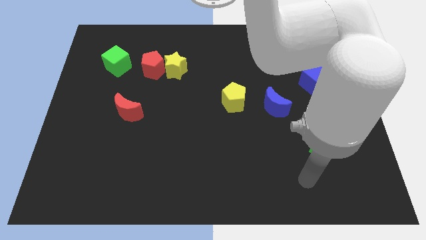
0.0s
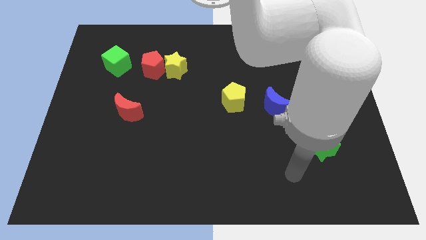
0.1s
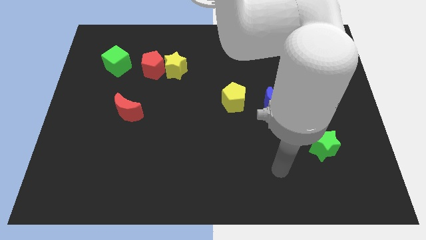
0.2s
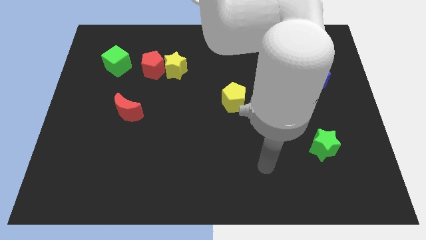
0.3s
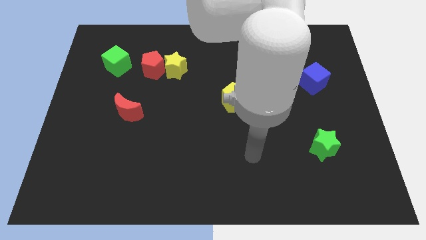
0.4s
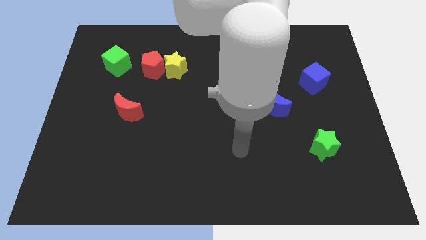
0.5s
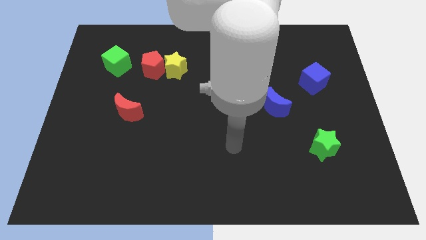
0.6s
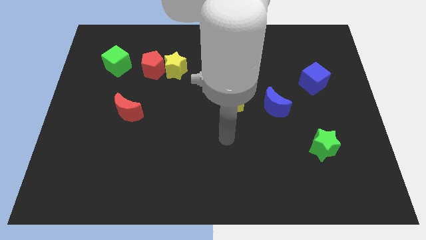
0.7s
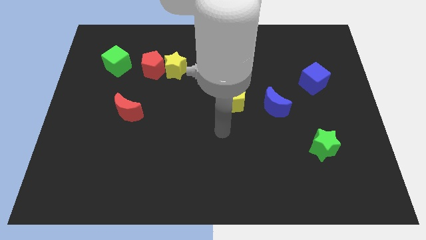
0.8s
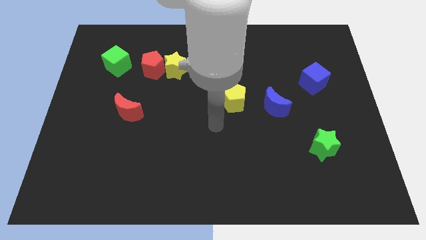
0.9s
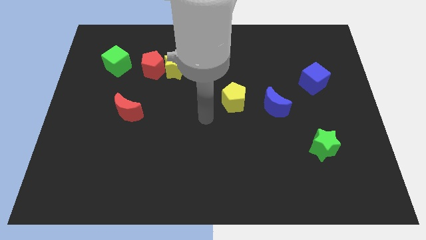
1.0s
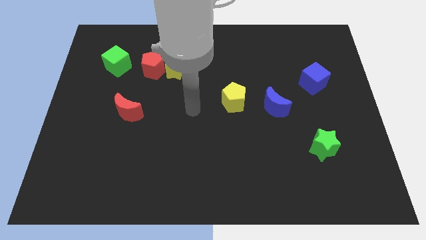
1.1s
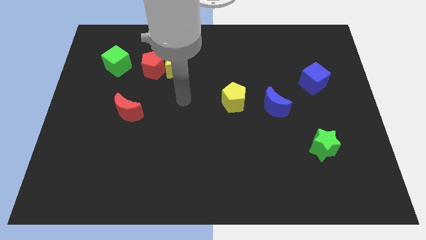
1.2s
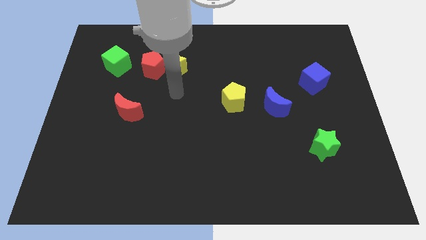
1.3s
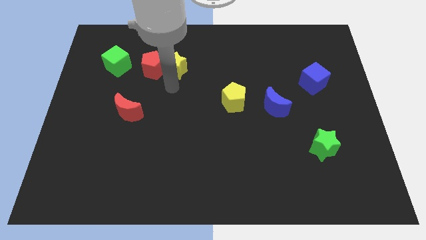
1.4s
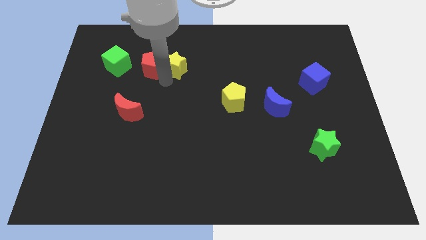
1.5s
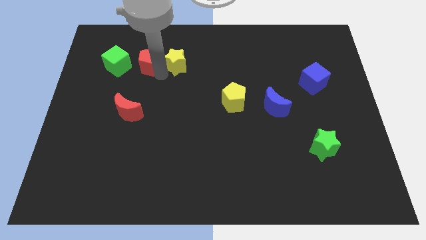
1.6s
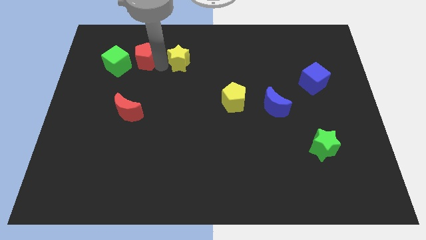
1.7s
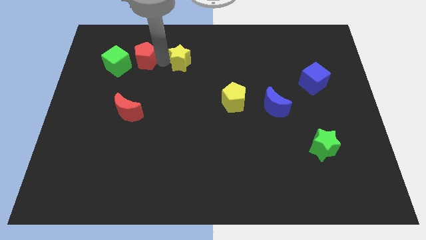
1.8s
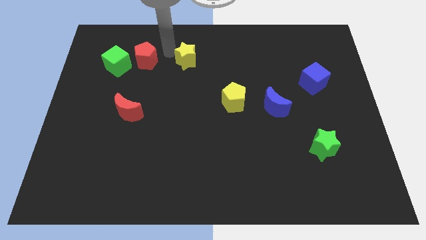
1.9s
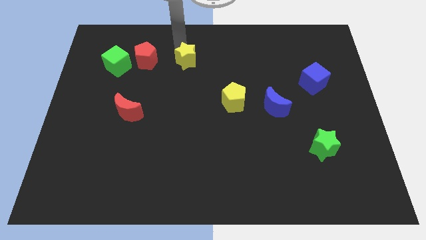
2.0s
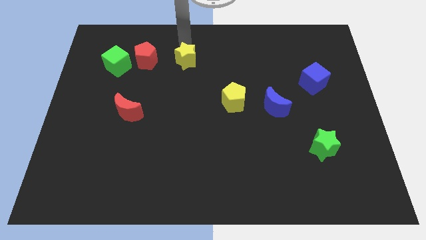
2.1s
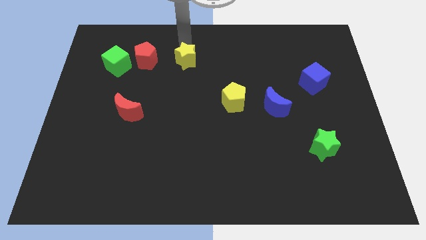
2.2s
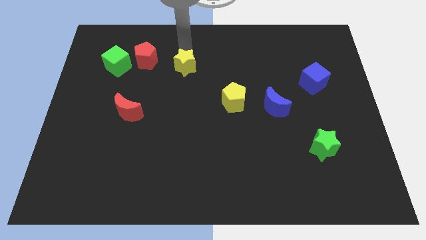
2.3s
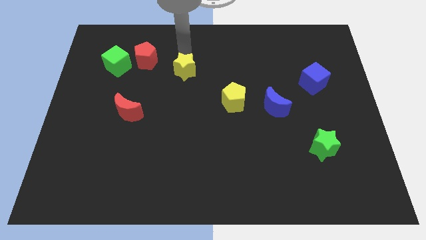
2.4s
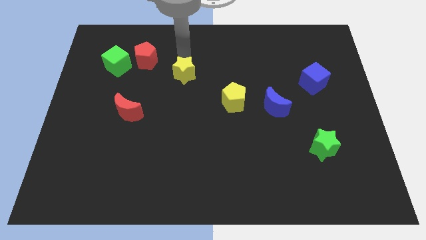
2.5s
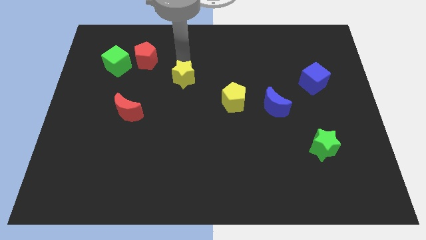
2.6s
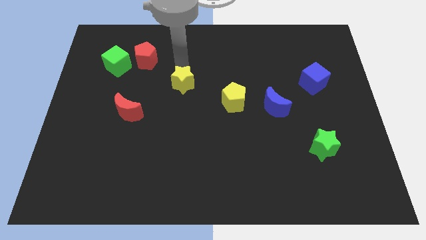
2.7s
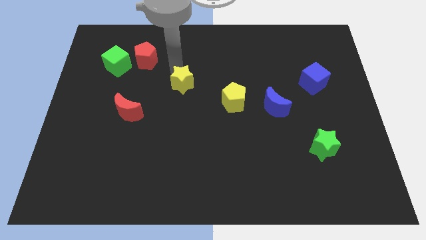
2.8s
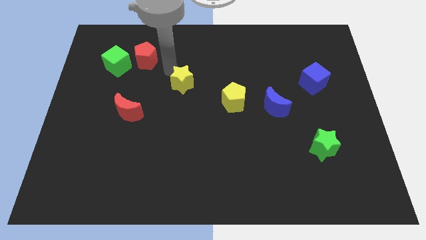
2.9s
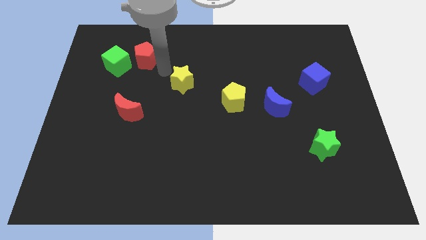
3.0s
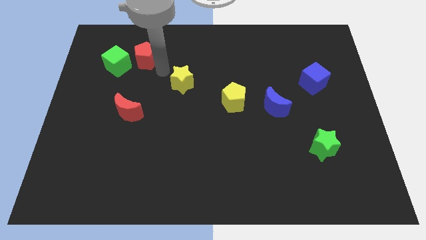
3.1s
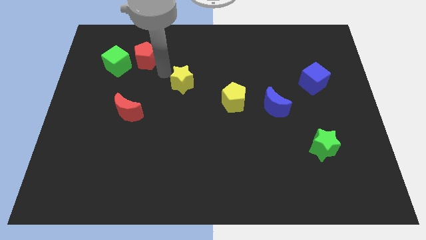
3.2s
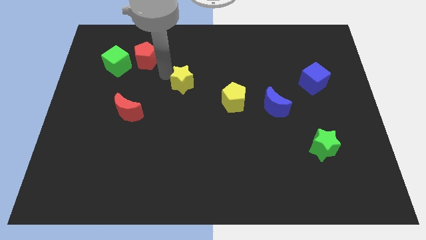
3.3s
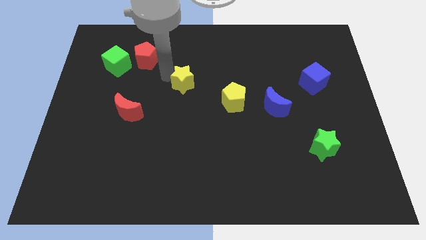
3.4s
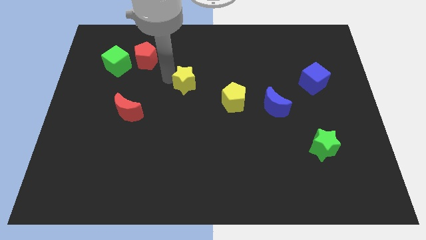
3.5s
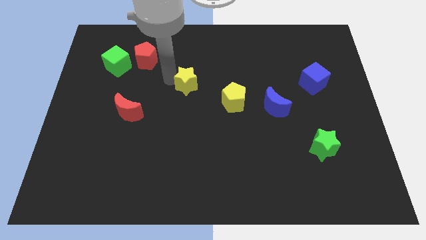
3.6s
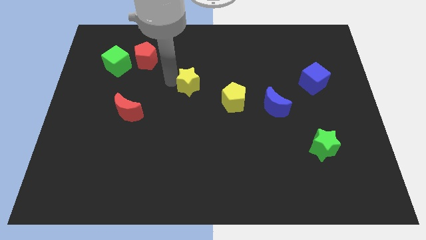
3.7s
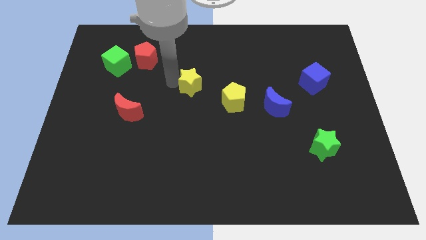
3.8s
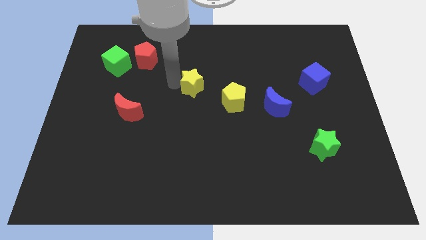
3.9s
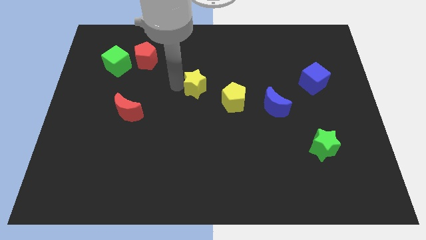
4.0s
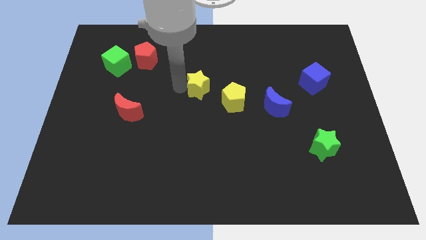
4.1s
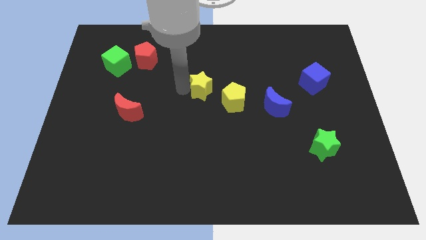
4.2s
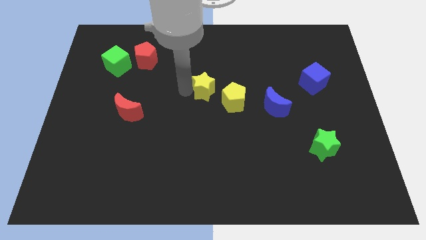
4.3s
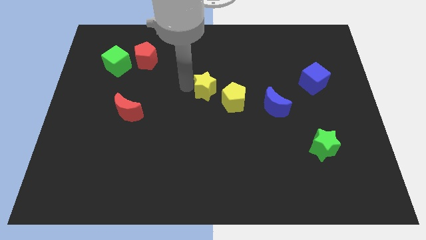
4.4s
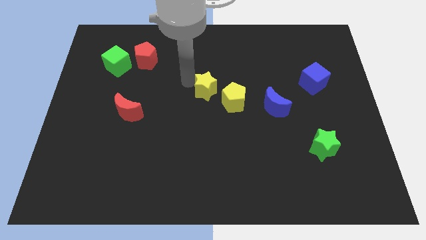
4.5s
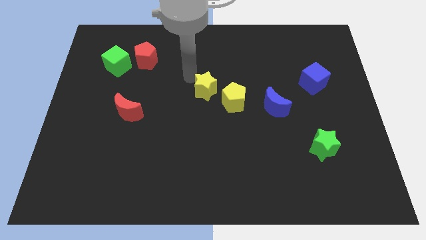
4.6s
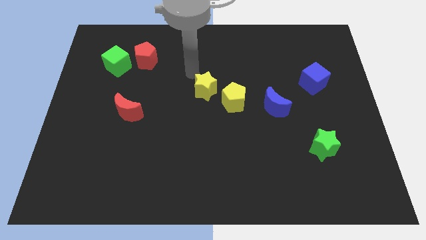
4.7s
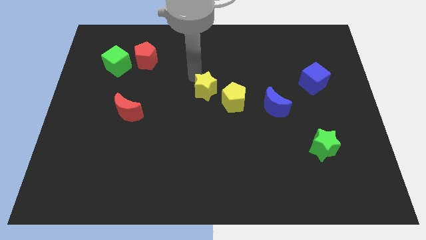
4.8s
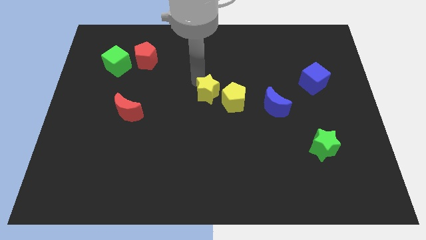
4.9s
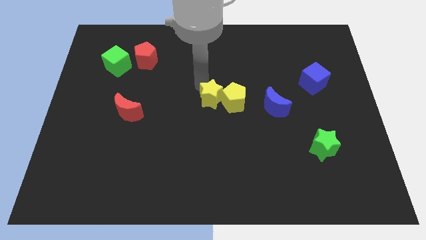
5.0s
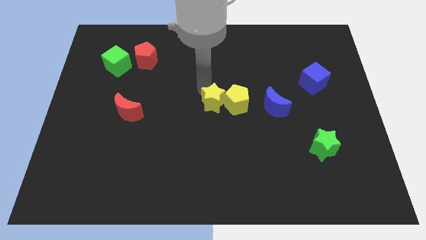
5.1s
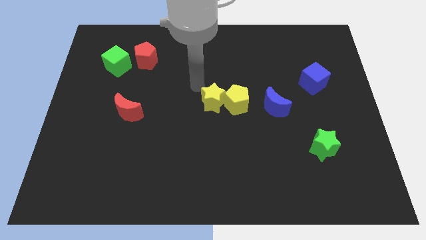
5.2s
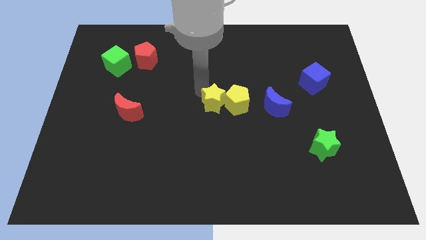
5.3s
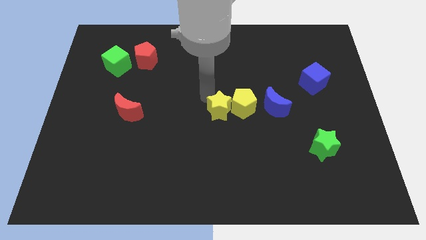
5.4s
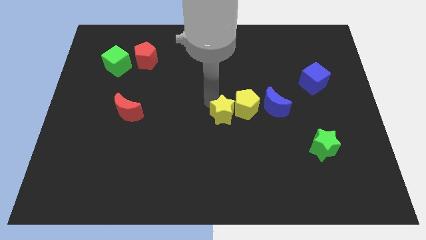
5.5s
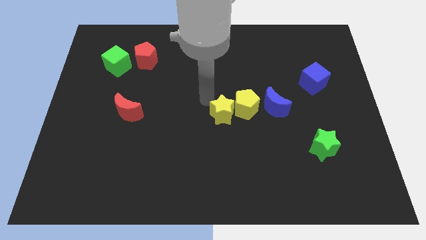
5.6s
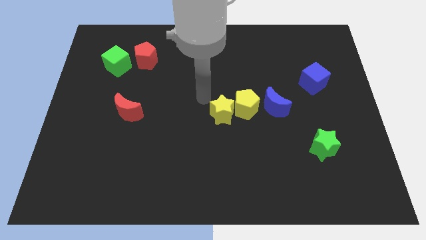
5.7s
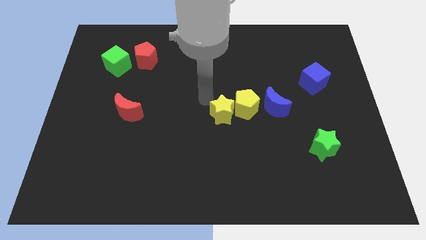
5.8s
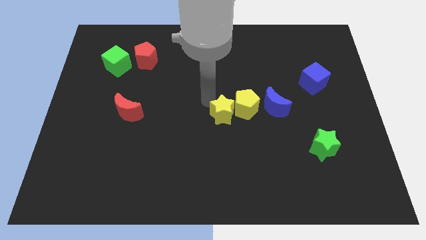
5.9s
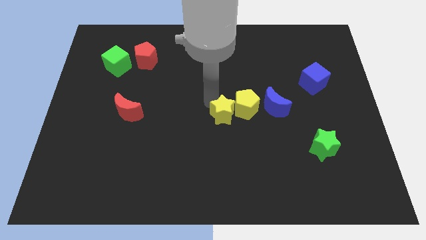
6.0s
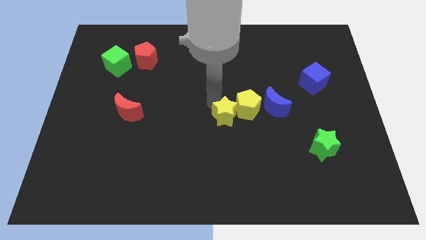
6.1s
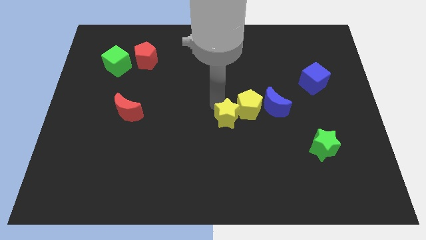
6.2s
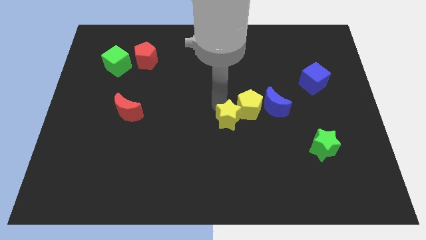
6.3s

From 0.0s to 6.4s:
move the yellow star downwards and to the right diagonally

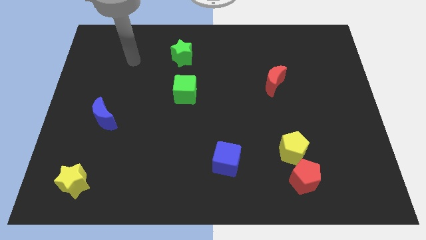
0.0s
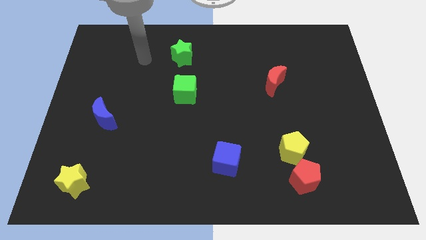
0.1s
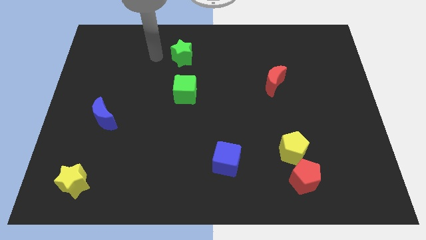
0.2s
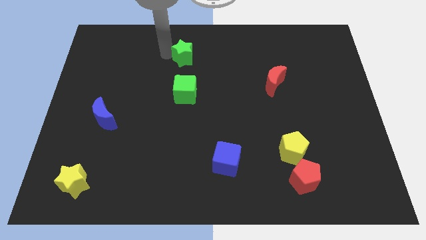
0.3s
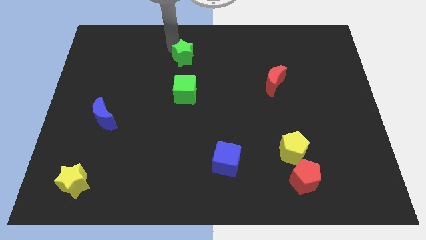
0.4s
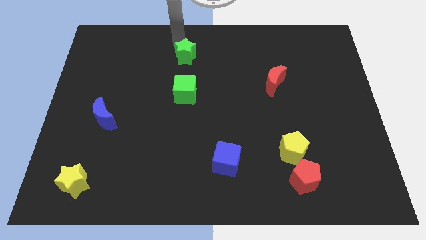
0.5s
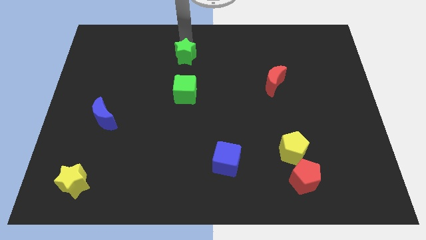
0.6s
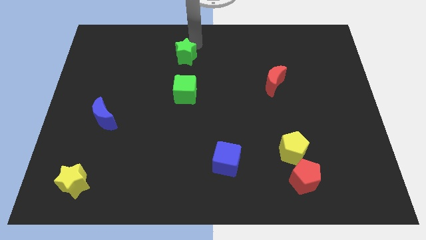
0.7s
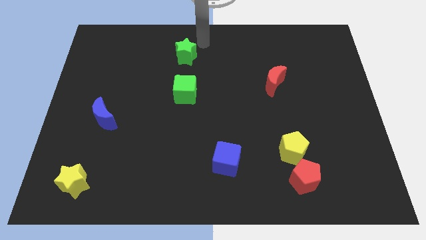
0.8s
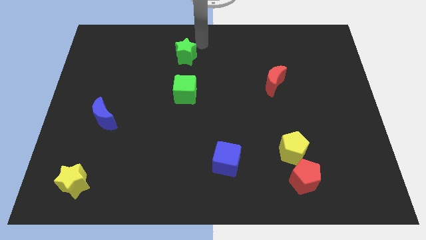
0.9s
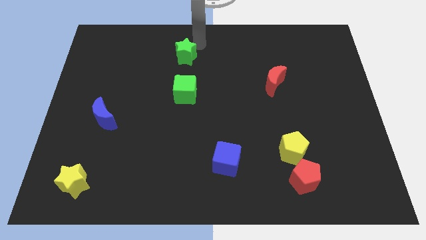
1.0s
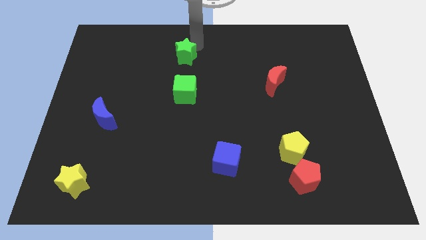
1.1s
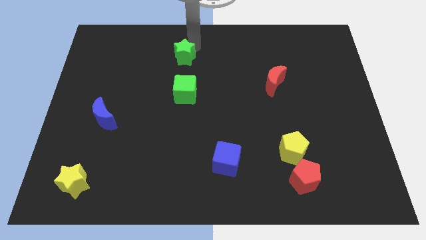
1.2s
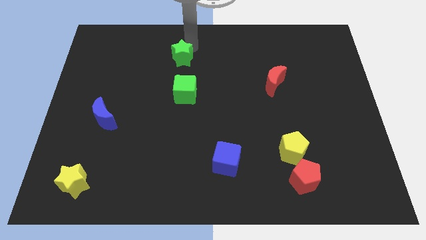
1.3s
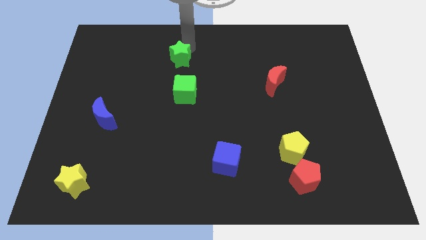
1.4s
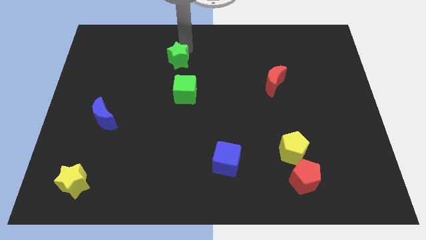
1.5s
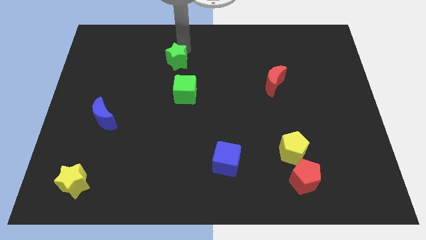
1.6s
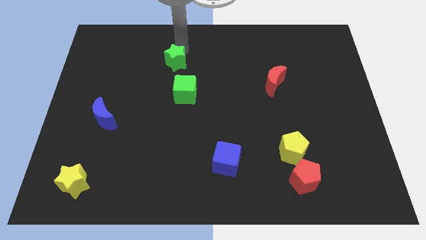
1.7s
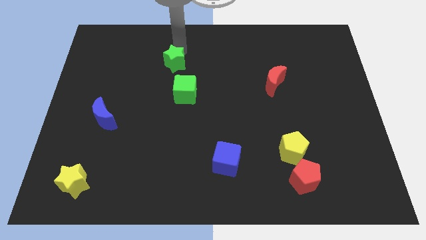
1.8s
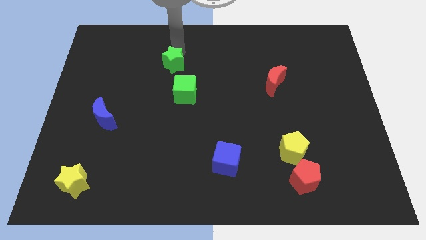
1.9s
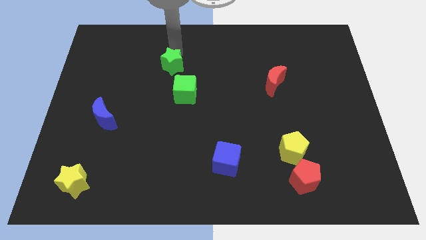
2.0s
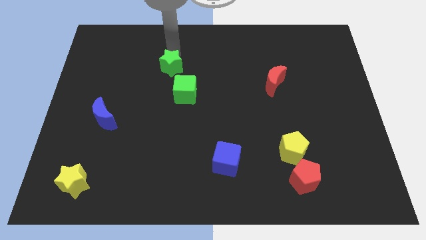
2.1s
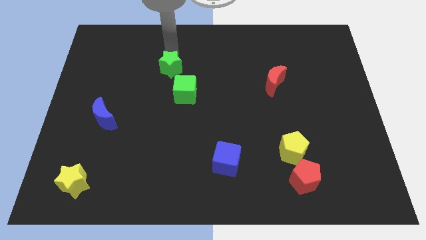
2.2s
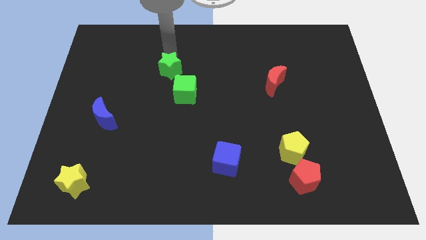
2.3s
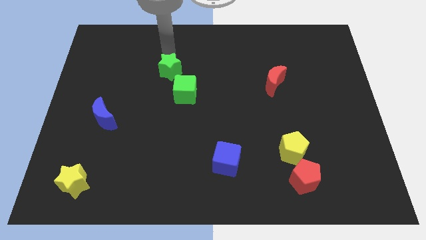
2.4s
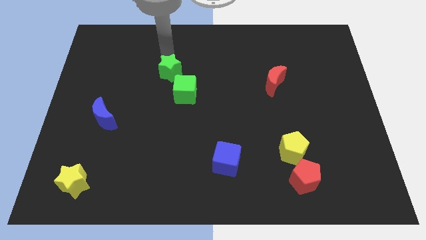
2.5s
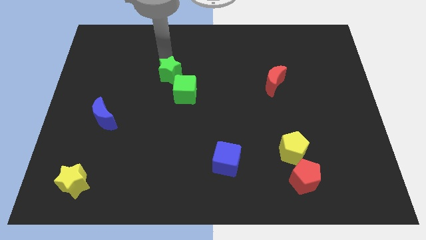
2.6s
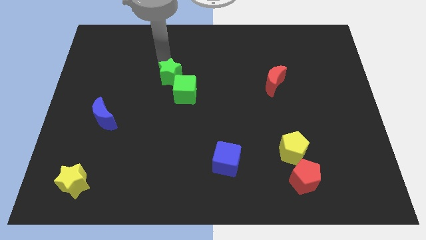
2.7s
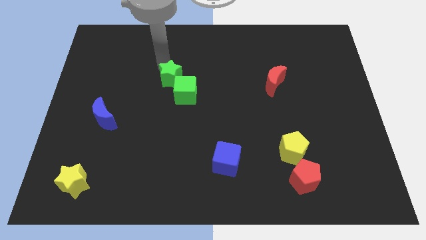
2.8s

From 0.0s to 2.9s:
slide the green star downwards a bit
